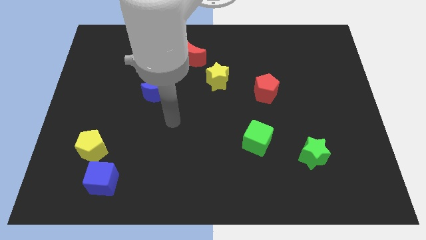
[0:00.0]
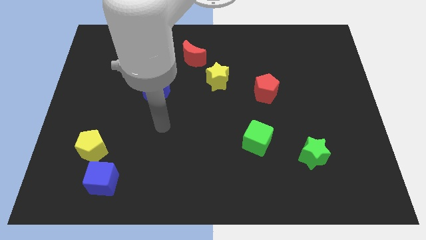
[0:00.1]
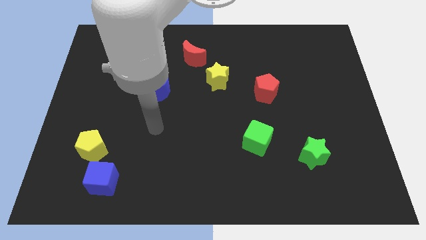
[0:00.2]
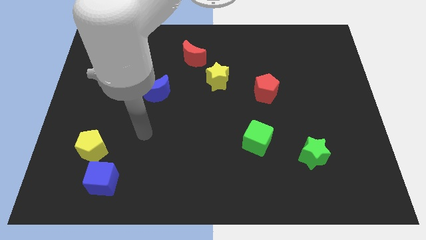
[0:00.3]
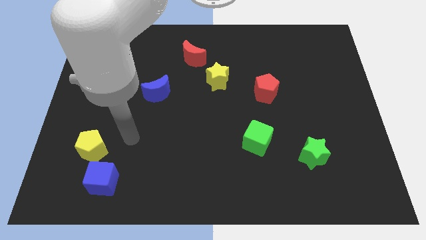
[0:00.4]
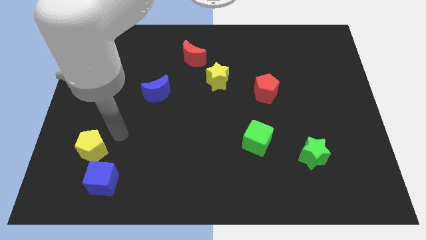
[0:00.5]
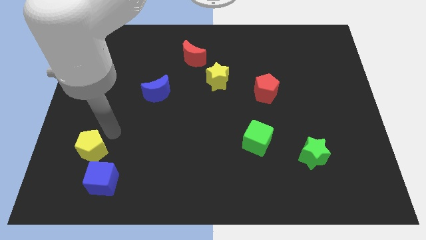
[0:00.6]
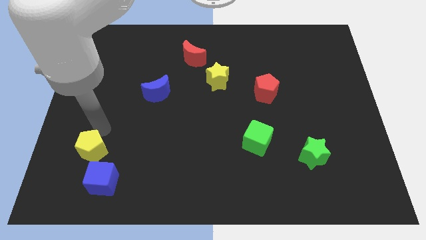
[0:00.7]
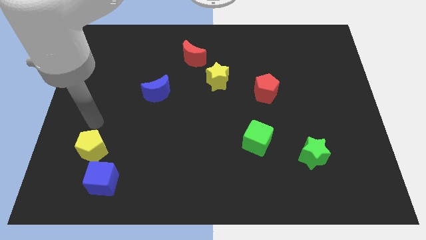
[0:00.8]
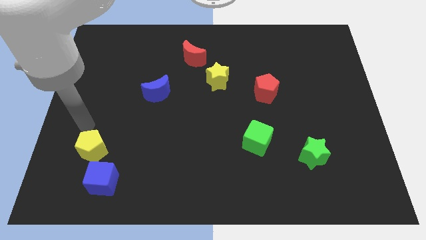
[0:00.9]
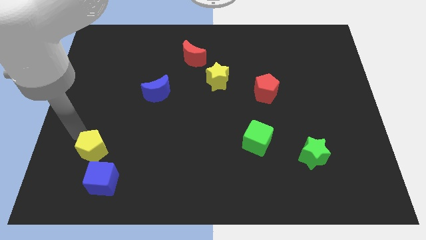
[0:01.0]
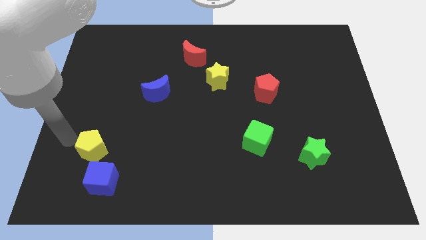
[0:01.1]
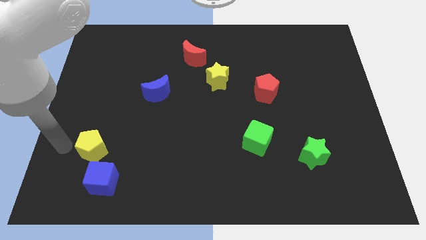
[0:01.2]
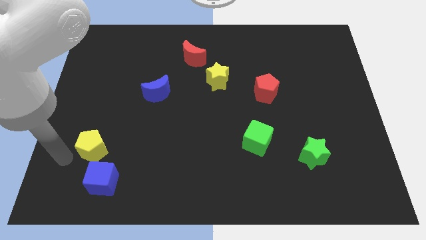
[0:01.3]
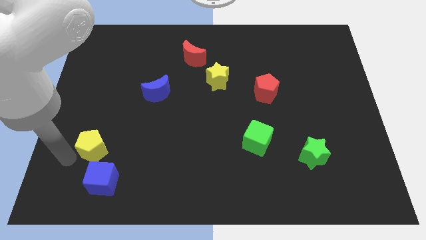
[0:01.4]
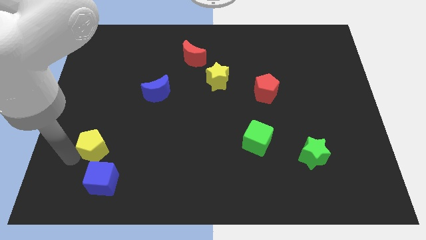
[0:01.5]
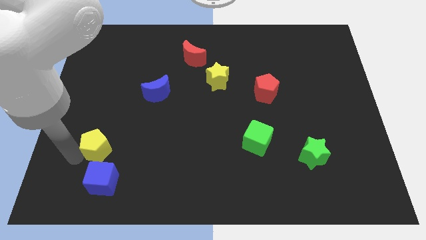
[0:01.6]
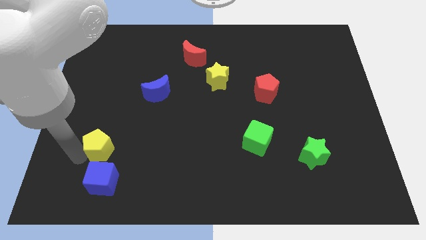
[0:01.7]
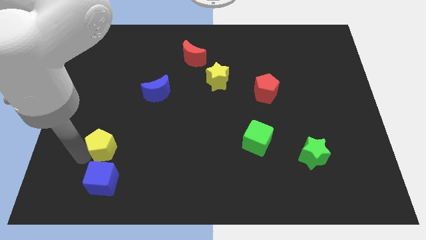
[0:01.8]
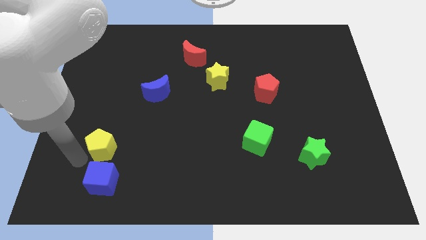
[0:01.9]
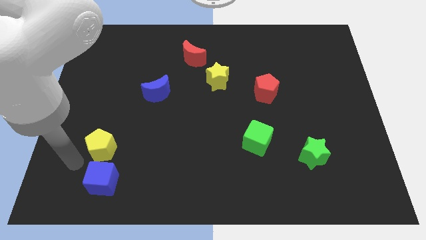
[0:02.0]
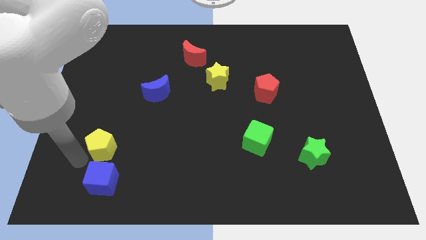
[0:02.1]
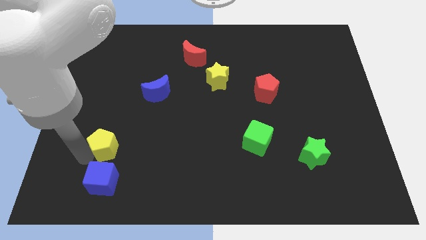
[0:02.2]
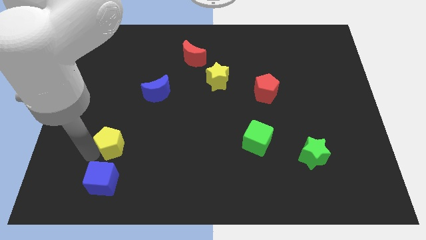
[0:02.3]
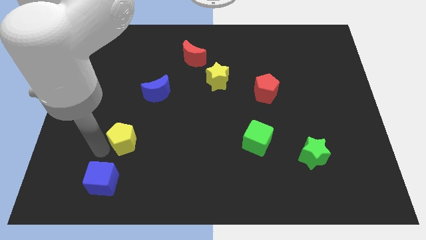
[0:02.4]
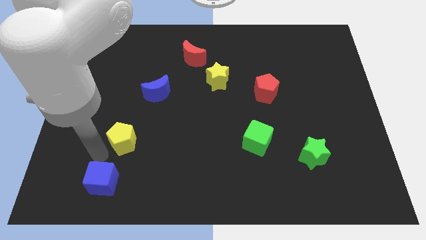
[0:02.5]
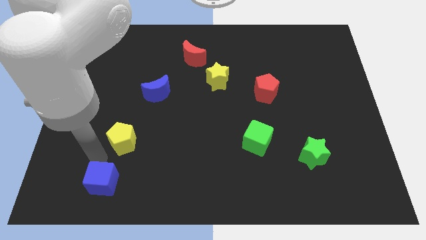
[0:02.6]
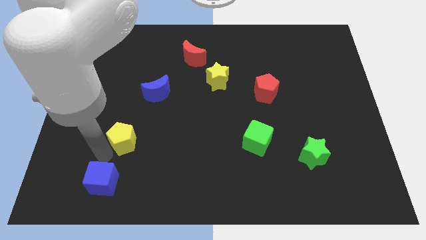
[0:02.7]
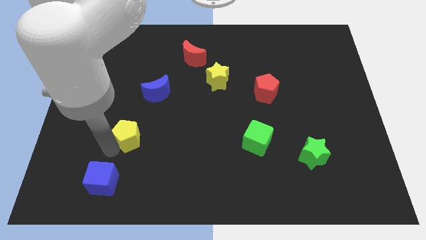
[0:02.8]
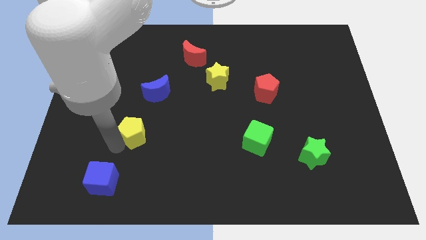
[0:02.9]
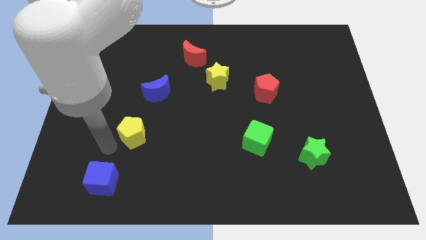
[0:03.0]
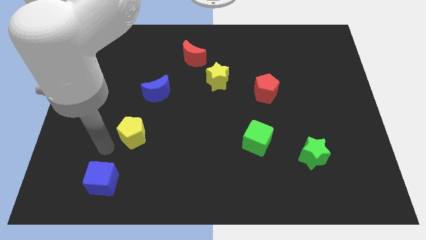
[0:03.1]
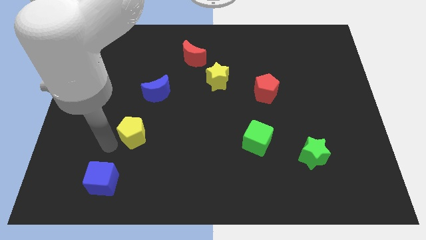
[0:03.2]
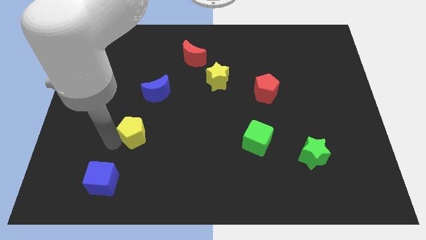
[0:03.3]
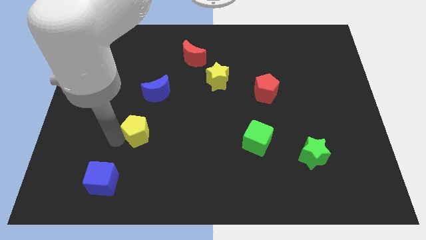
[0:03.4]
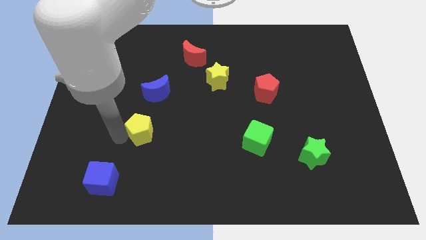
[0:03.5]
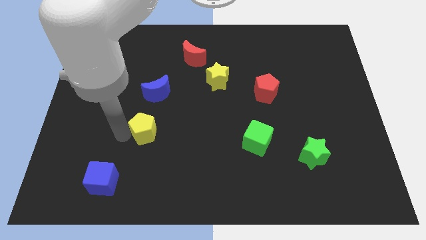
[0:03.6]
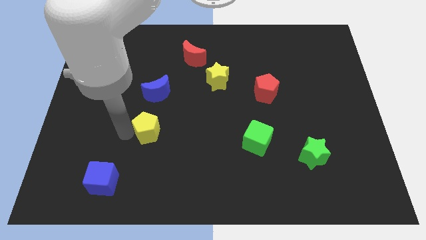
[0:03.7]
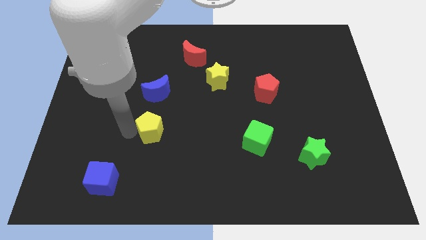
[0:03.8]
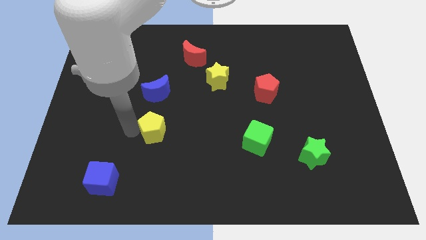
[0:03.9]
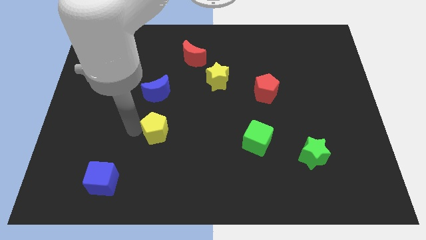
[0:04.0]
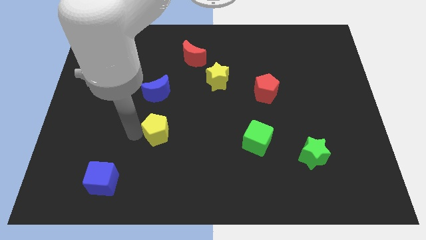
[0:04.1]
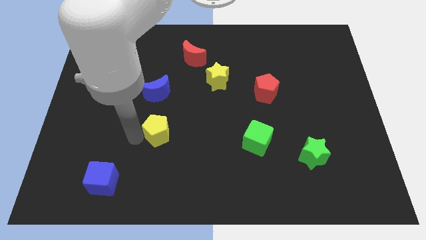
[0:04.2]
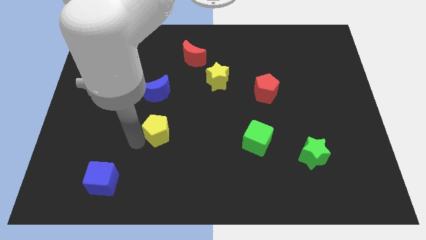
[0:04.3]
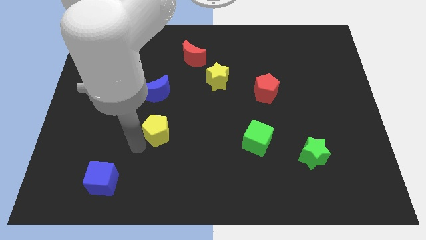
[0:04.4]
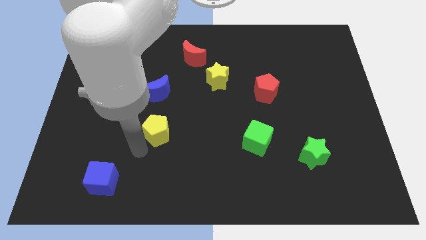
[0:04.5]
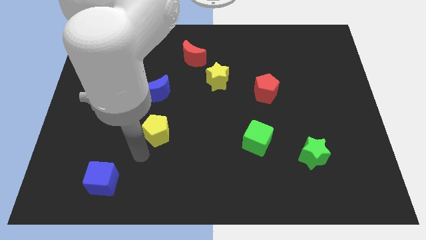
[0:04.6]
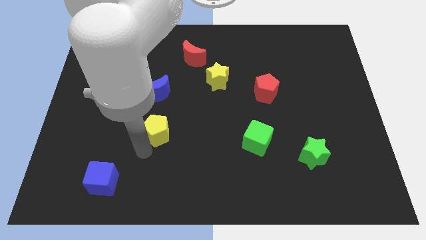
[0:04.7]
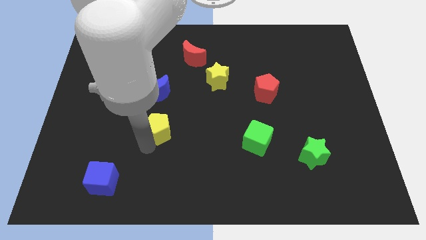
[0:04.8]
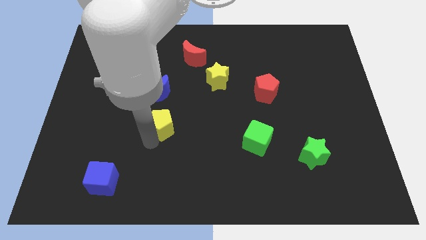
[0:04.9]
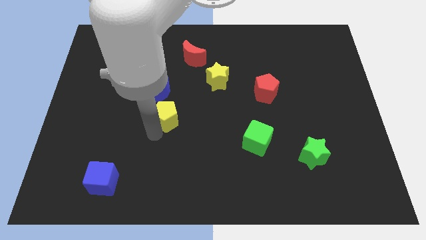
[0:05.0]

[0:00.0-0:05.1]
slide the yellow pentagon to the middle
